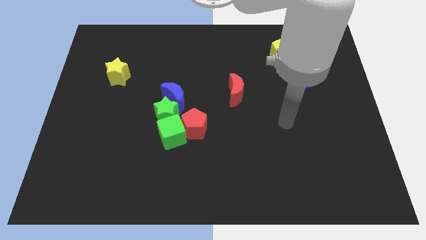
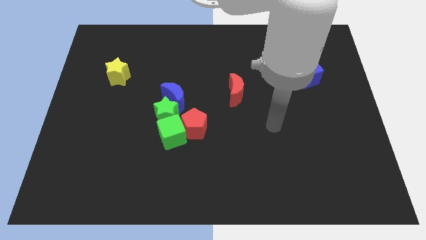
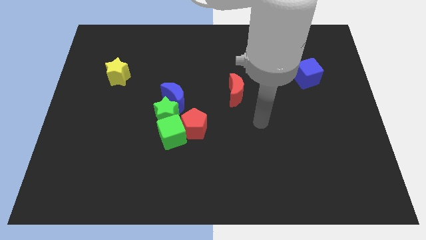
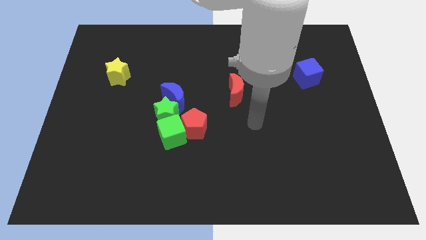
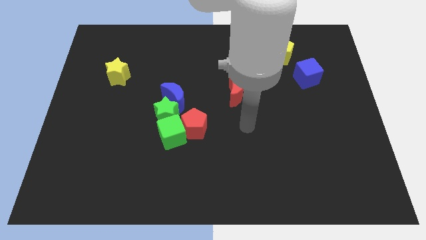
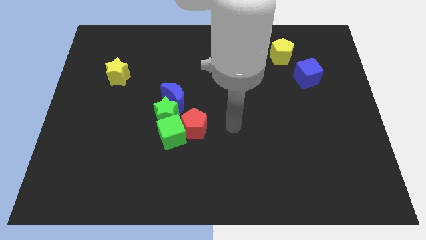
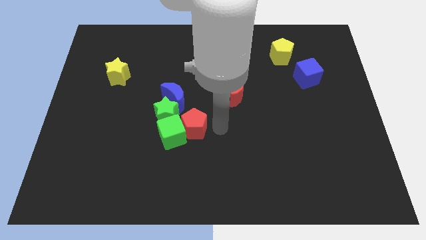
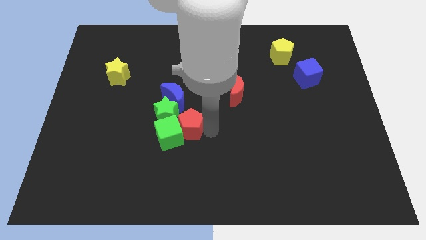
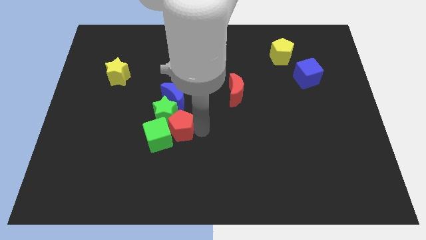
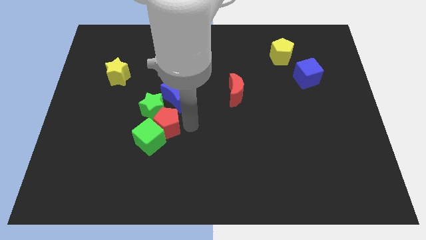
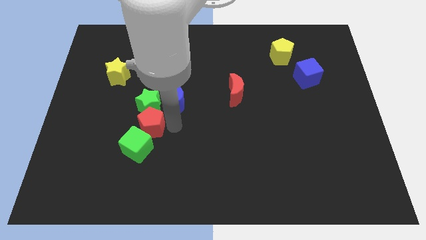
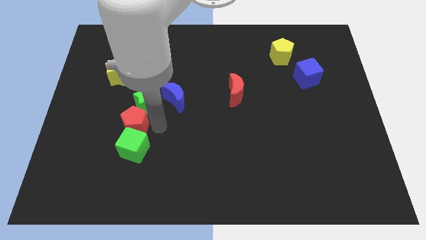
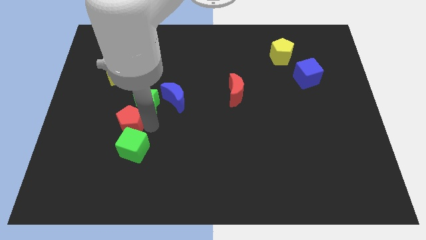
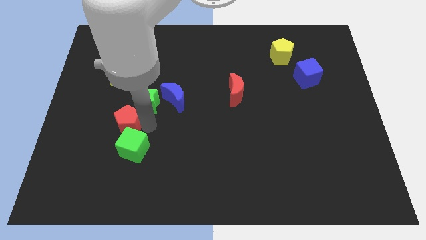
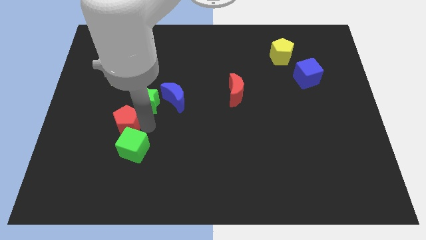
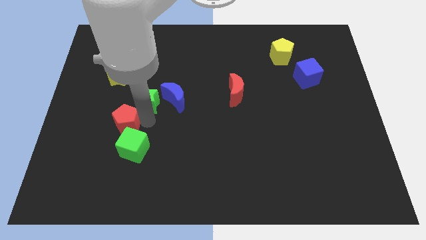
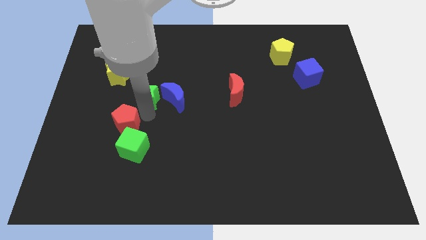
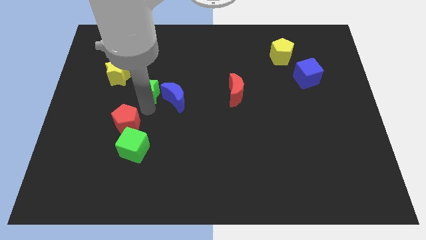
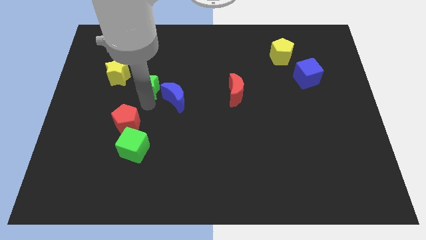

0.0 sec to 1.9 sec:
separate the green star from the blue moon, green cube, and red pentagon

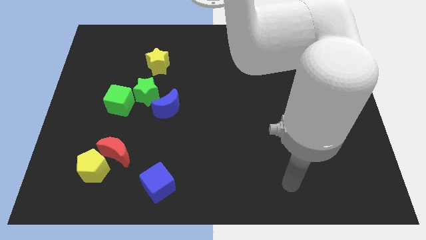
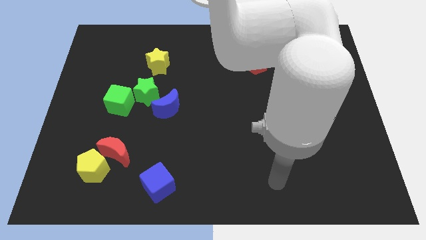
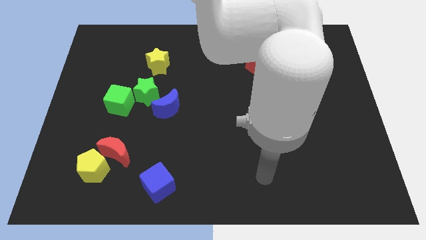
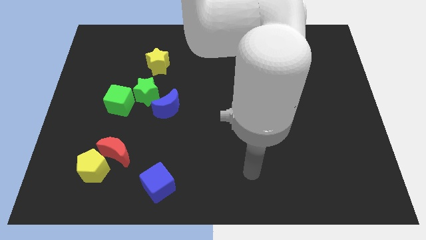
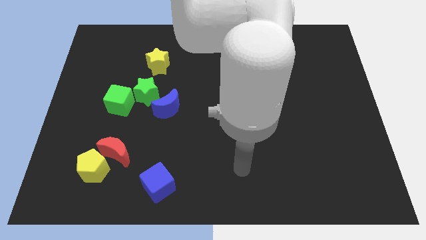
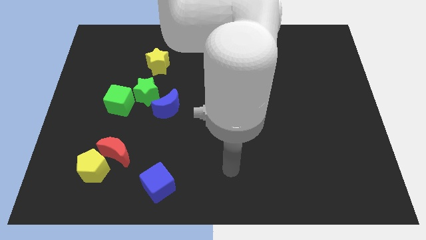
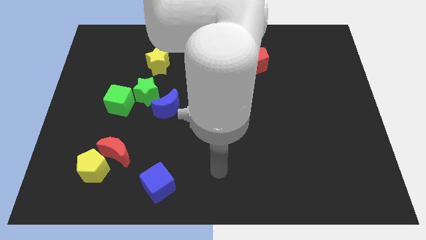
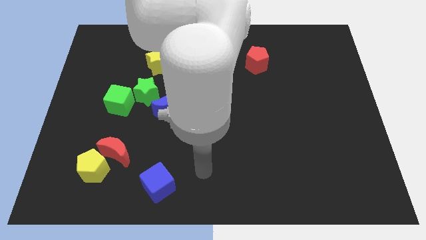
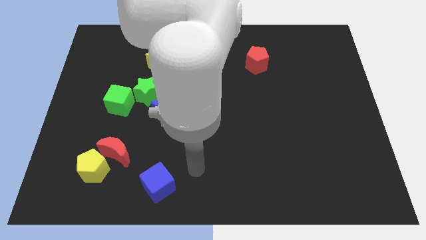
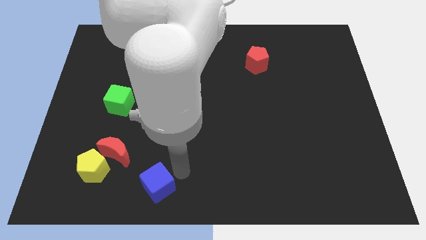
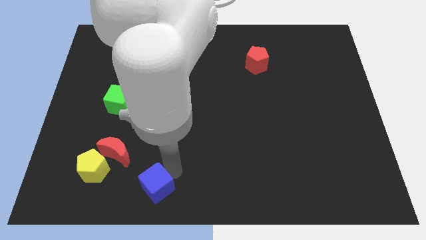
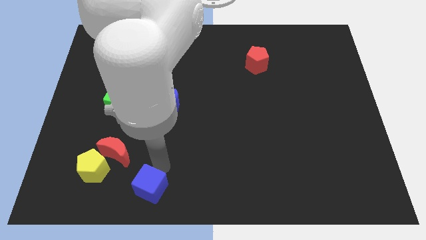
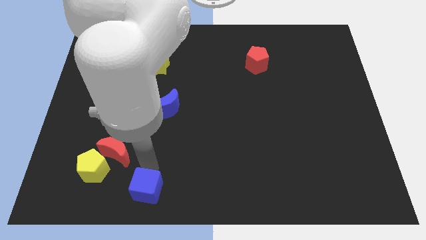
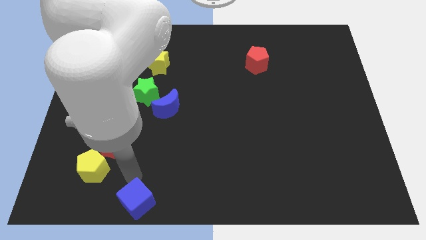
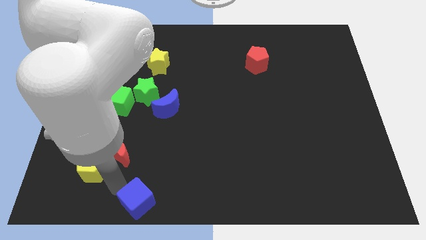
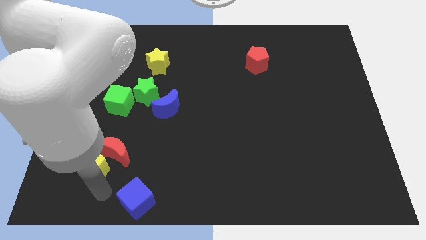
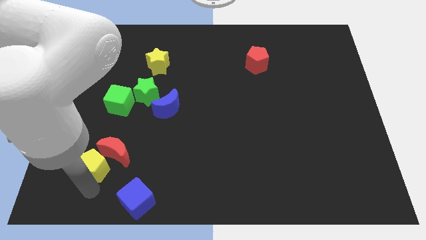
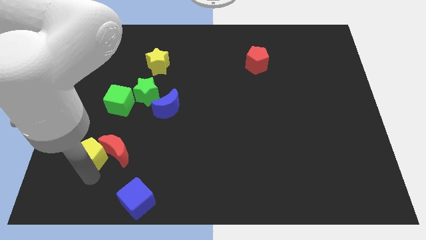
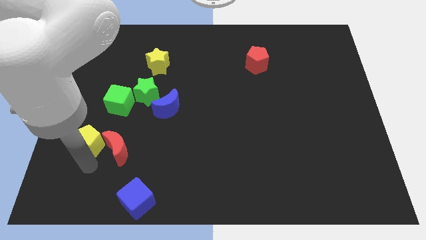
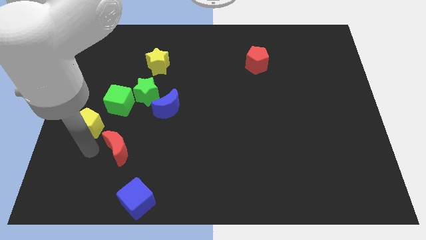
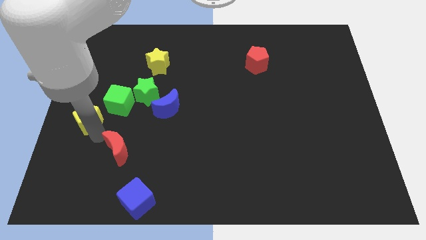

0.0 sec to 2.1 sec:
move the red moon away from the yellow pentagon

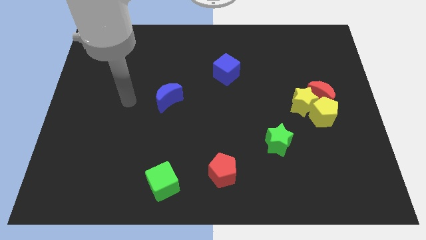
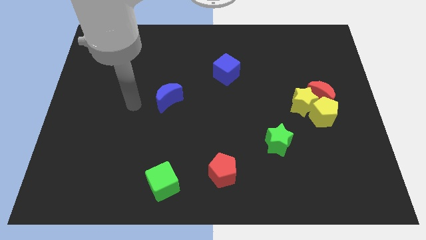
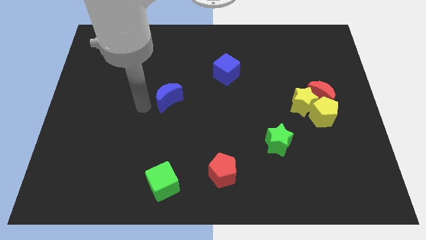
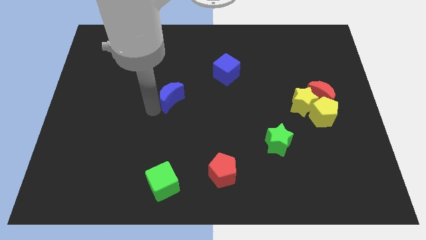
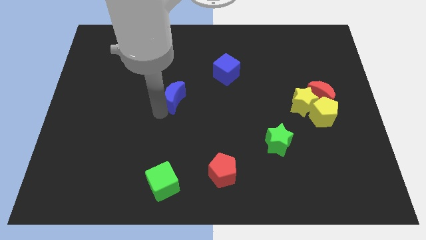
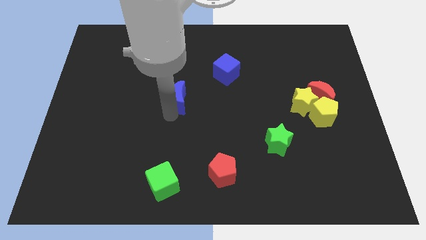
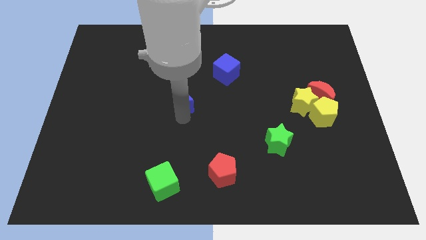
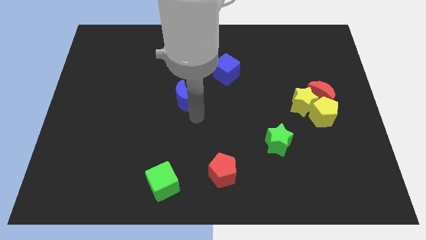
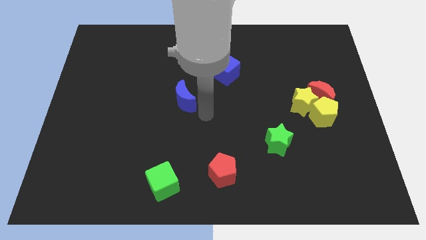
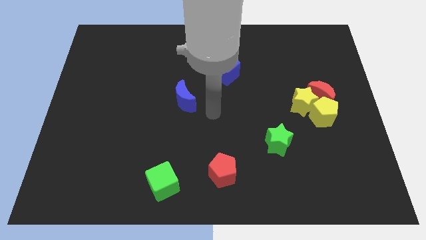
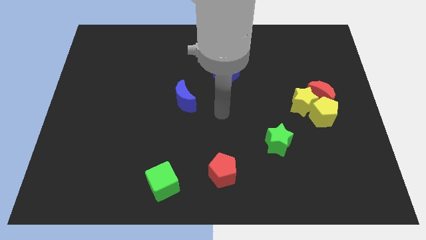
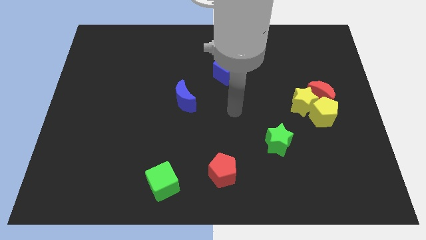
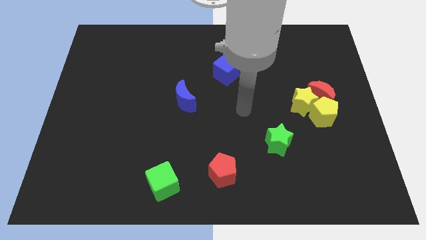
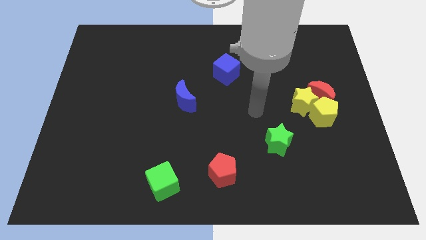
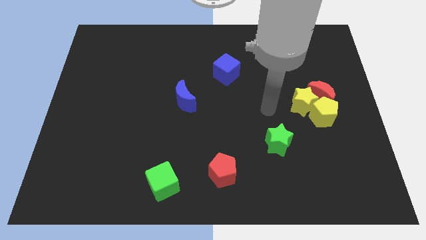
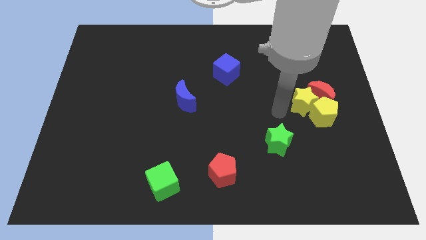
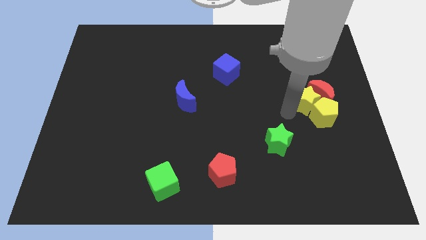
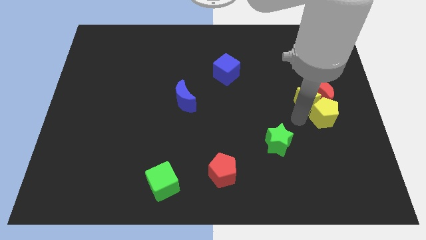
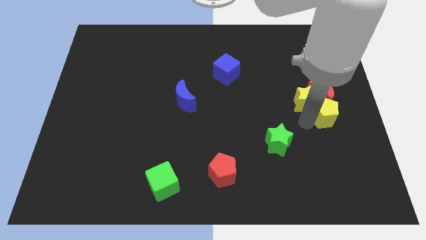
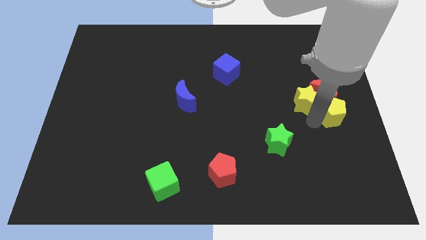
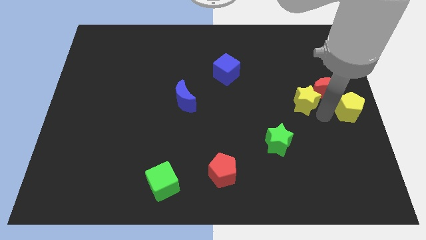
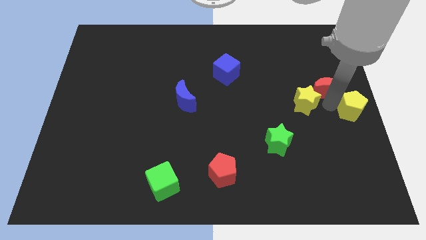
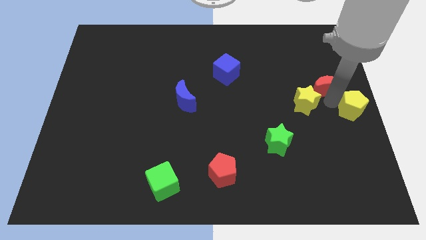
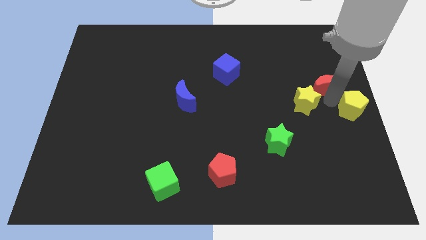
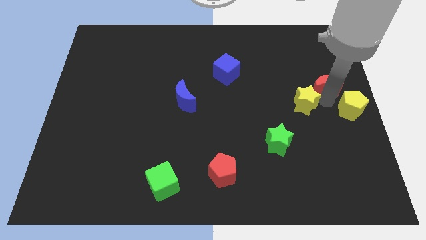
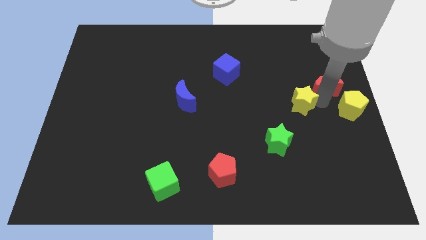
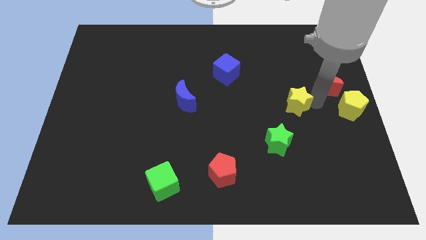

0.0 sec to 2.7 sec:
move the yellow star away from the yellow pentagon and red moon

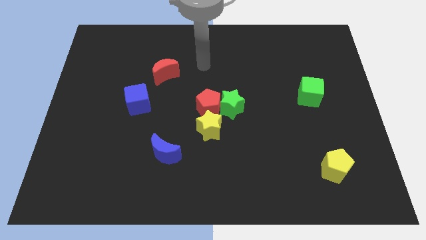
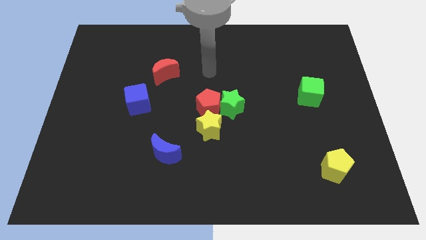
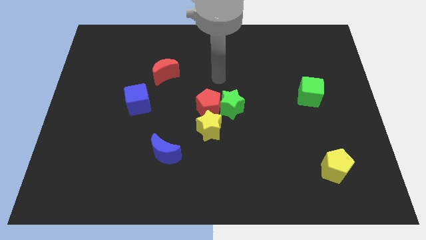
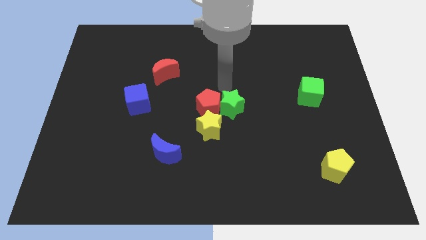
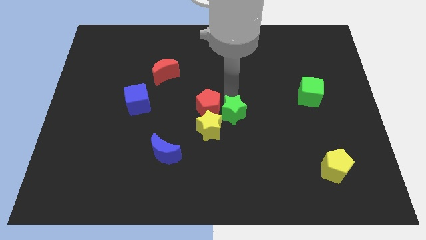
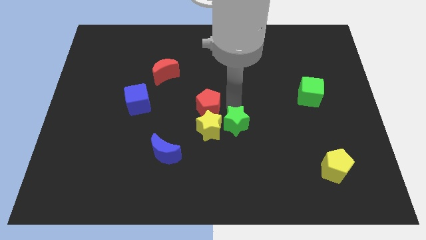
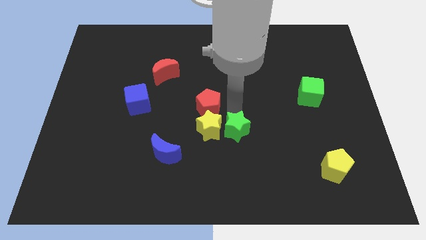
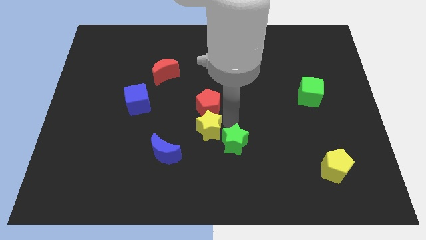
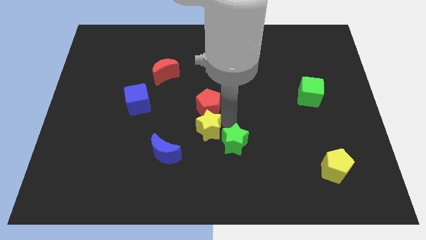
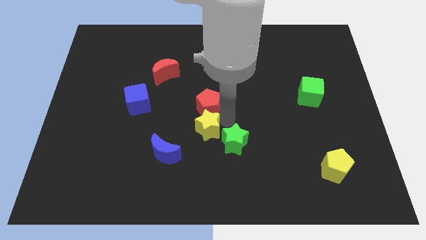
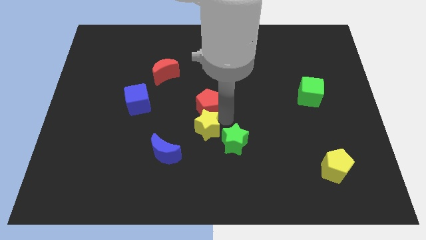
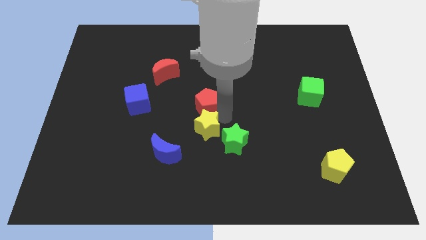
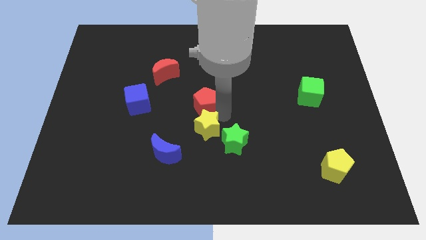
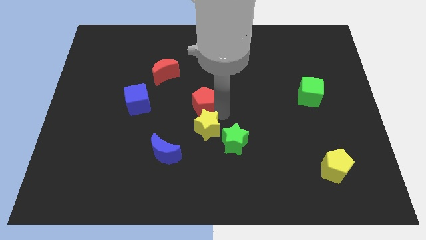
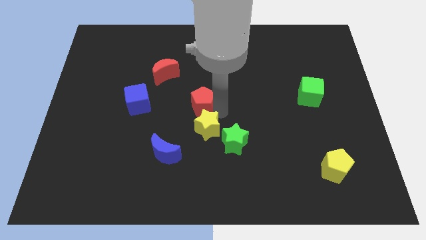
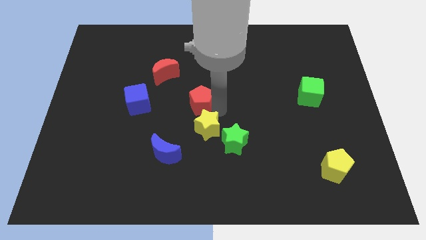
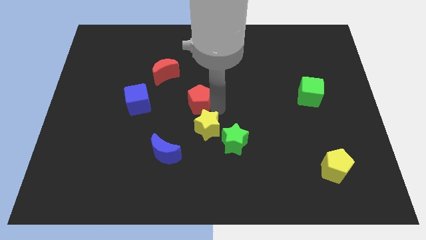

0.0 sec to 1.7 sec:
pull the red pentagon apart from the green star and yellow star

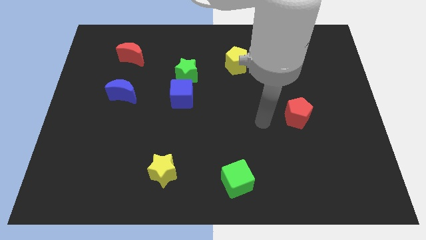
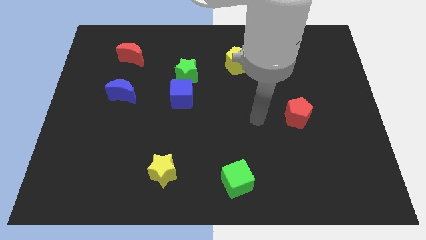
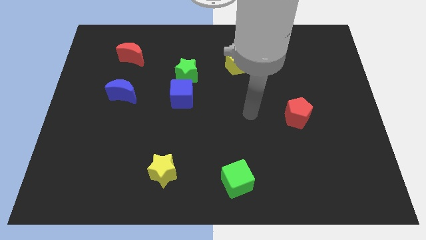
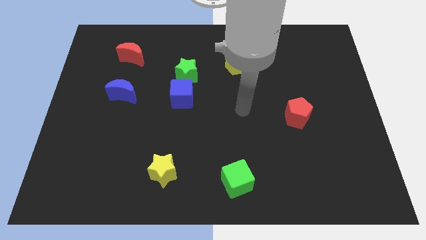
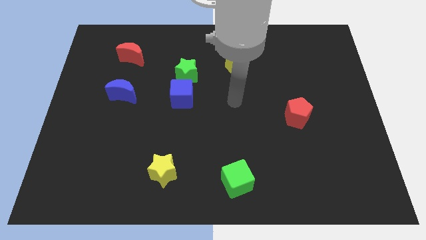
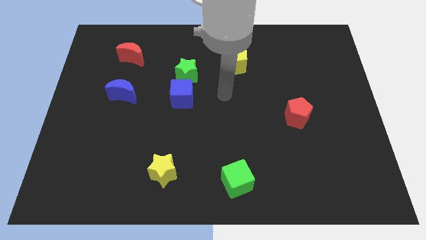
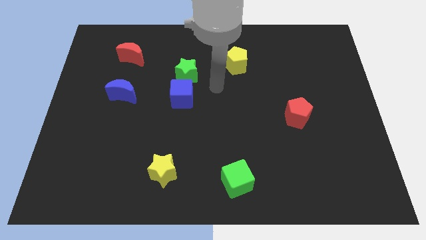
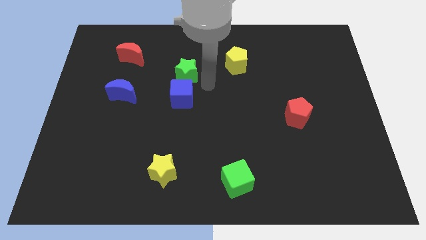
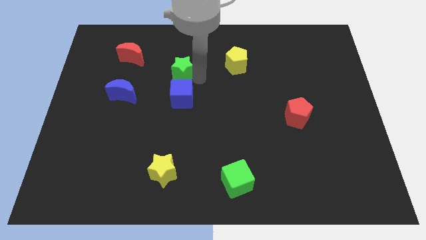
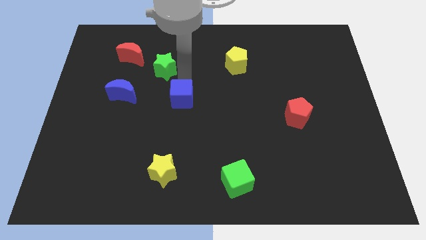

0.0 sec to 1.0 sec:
separate the blue cube from the green star
